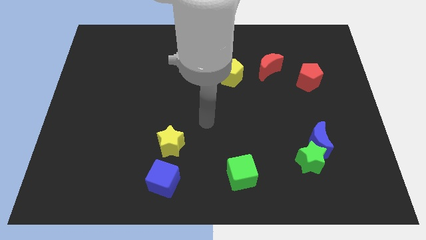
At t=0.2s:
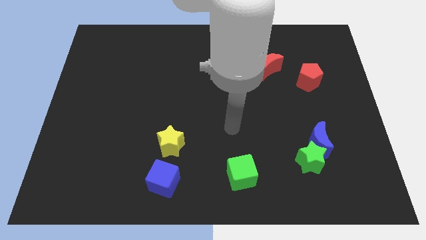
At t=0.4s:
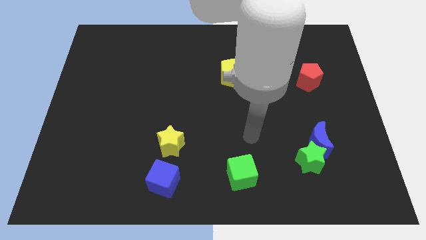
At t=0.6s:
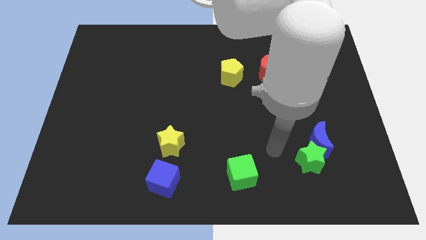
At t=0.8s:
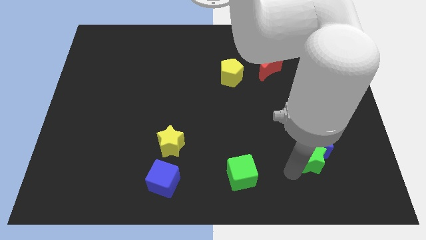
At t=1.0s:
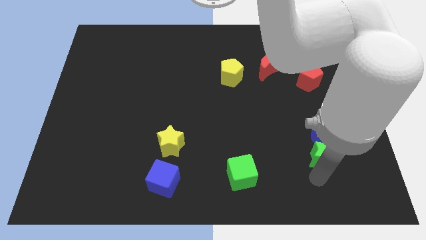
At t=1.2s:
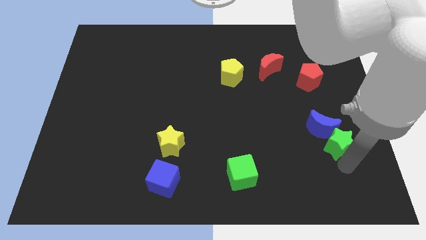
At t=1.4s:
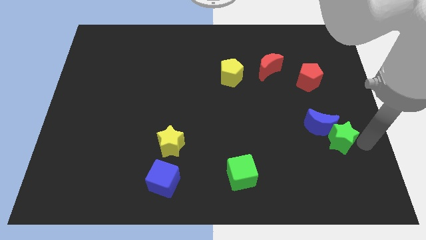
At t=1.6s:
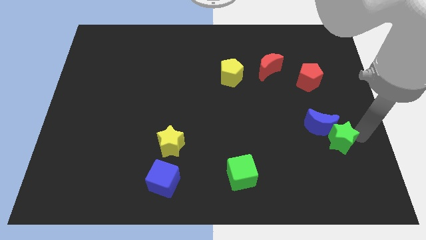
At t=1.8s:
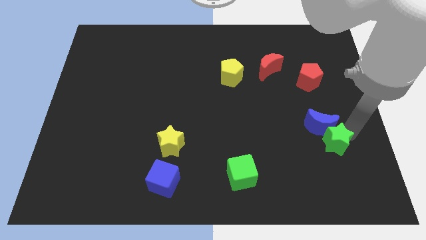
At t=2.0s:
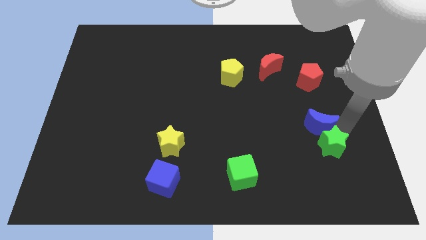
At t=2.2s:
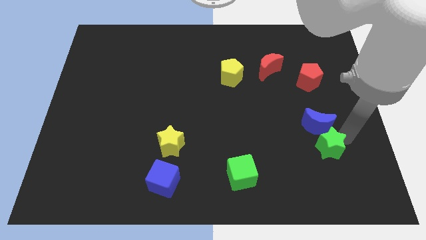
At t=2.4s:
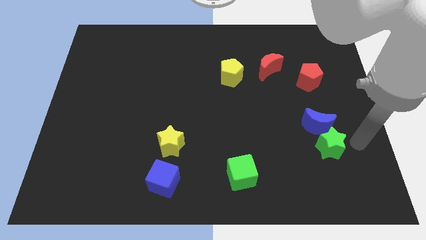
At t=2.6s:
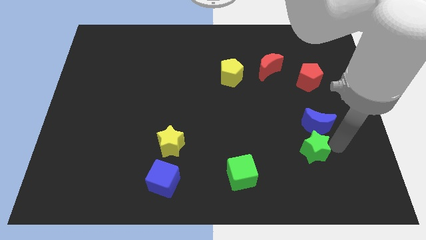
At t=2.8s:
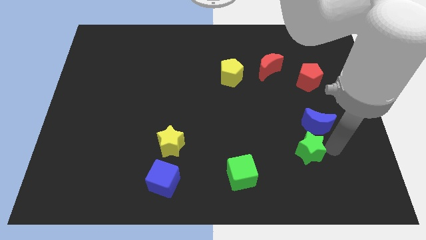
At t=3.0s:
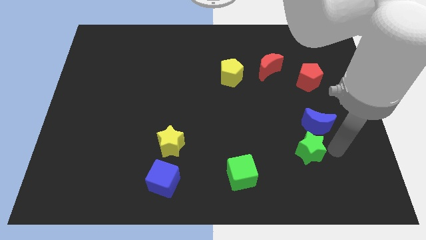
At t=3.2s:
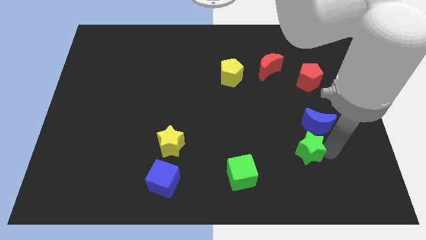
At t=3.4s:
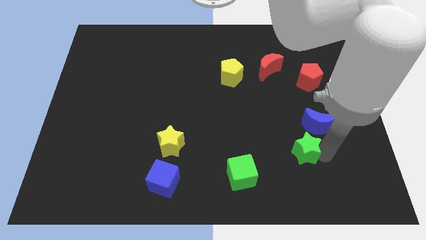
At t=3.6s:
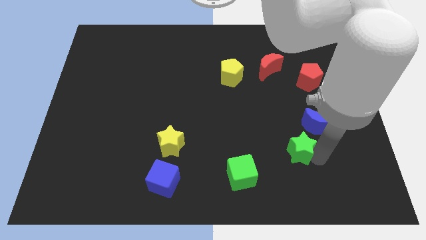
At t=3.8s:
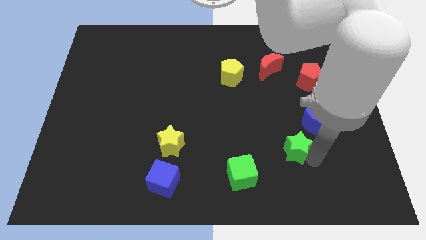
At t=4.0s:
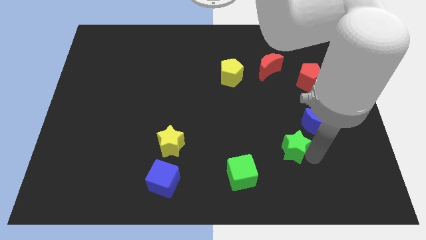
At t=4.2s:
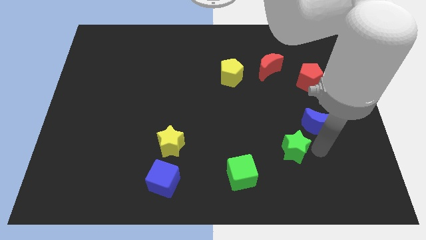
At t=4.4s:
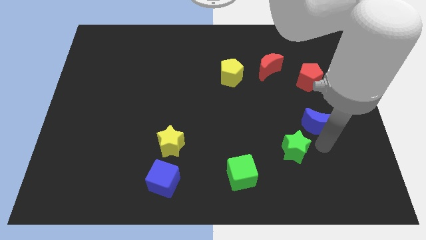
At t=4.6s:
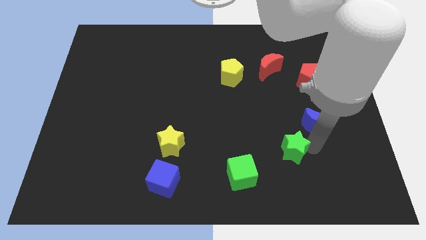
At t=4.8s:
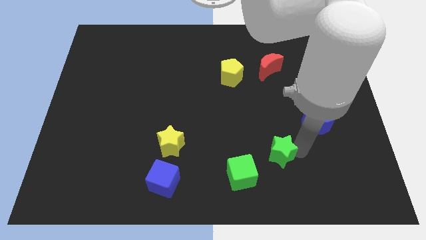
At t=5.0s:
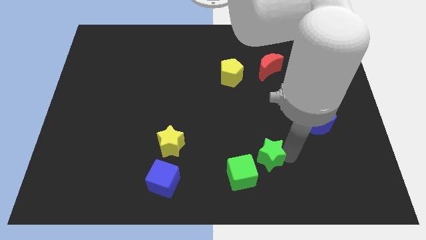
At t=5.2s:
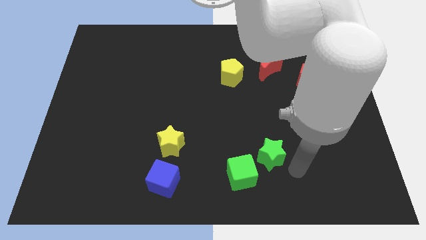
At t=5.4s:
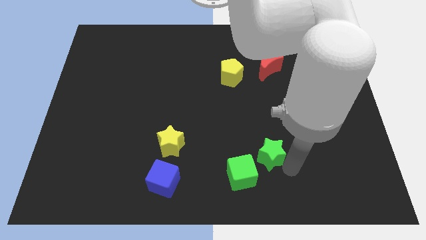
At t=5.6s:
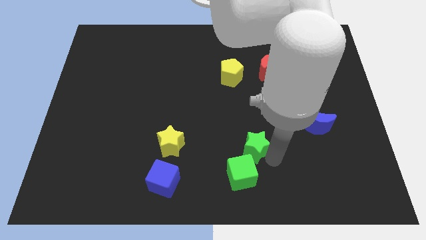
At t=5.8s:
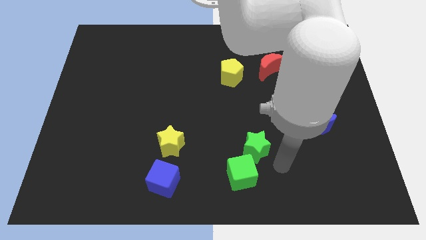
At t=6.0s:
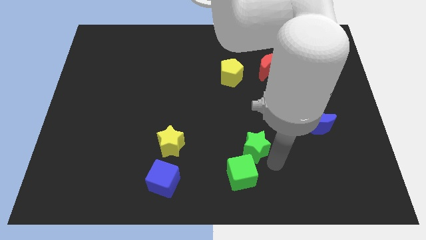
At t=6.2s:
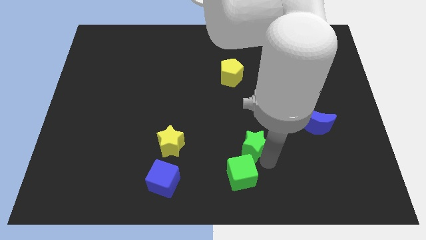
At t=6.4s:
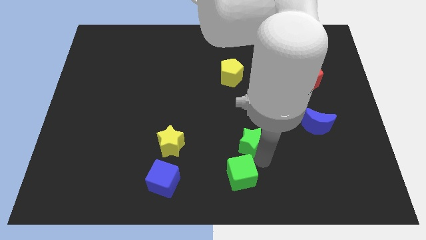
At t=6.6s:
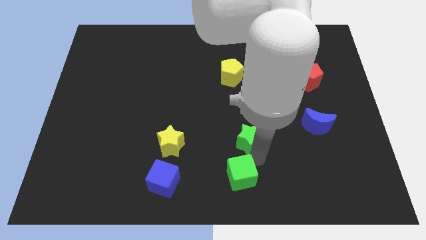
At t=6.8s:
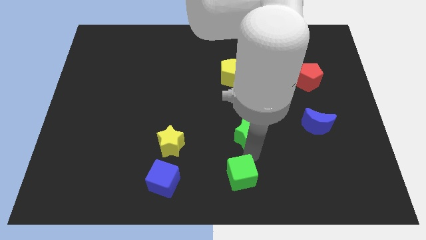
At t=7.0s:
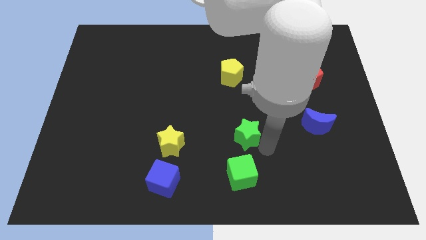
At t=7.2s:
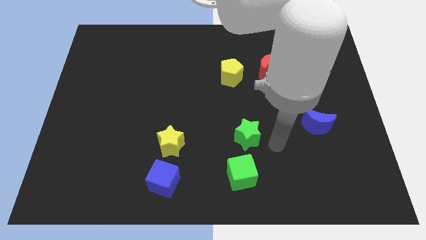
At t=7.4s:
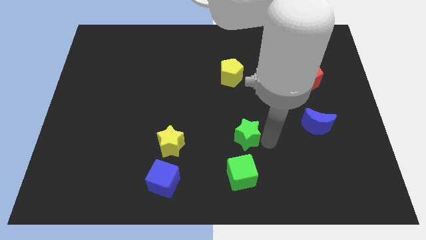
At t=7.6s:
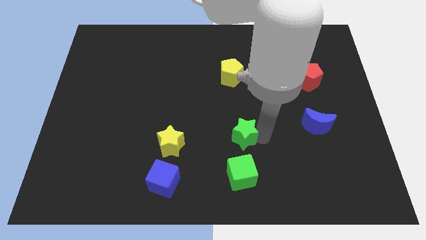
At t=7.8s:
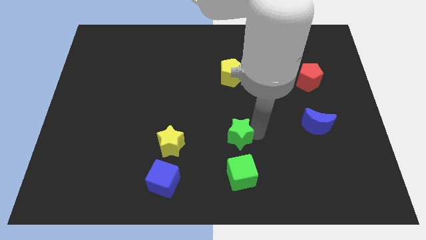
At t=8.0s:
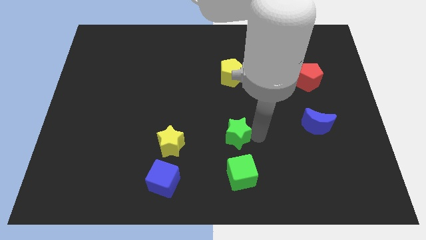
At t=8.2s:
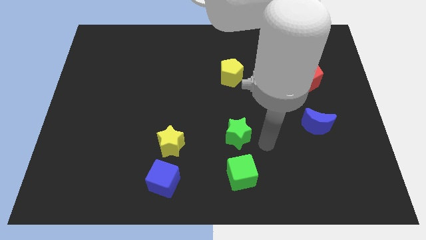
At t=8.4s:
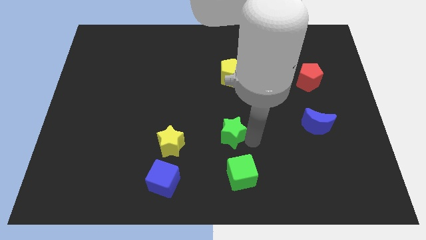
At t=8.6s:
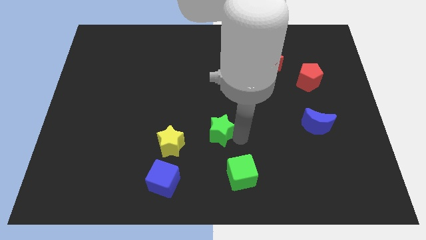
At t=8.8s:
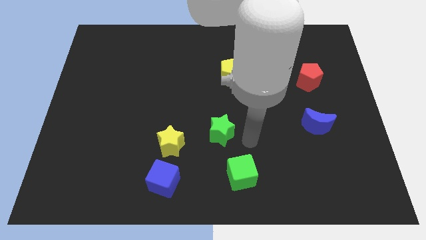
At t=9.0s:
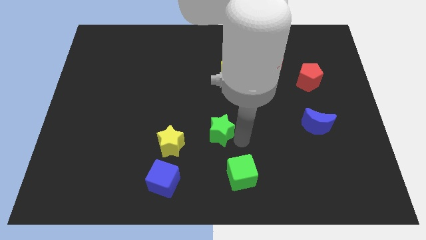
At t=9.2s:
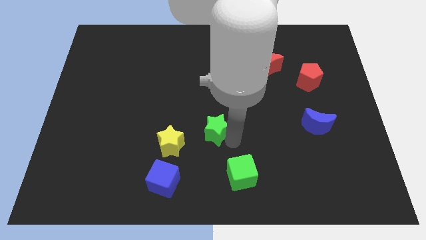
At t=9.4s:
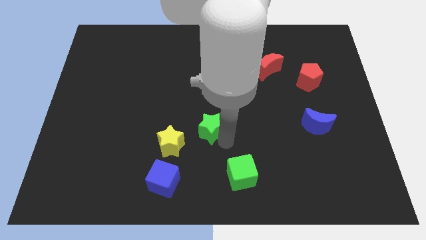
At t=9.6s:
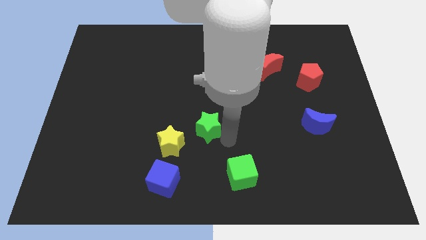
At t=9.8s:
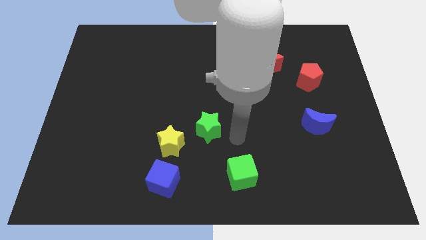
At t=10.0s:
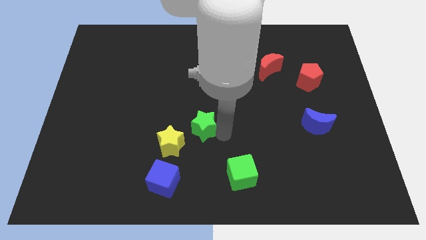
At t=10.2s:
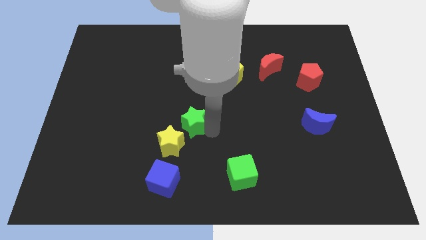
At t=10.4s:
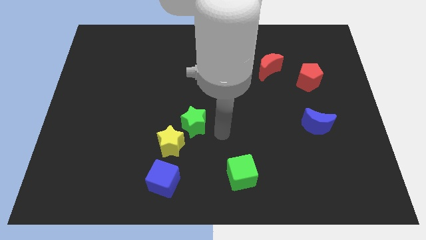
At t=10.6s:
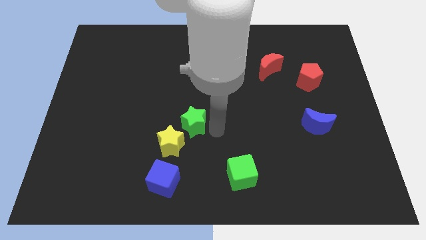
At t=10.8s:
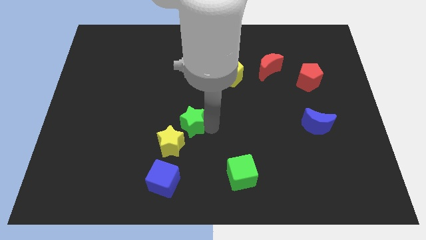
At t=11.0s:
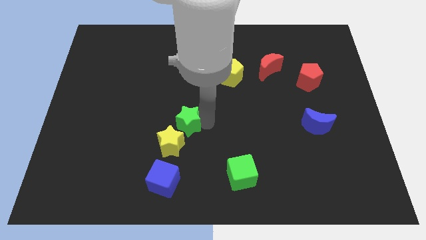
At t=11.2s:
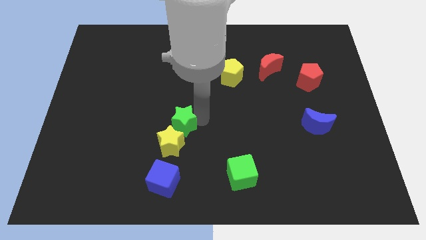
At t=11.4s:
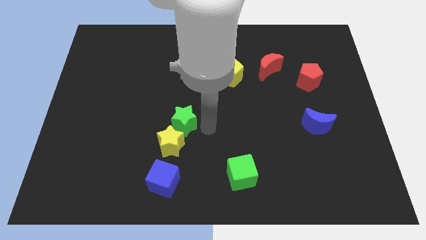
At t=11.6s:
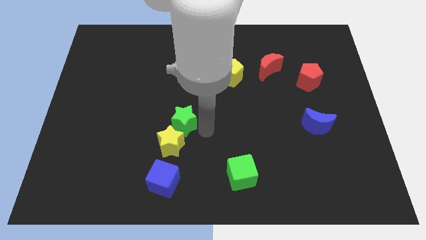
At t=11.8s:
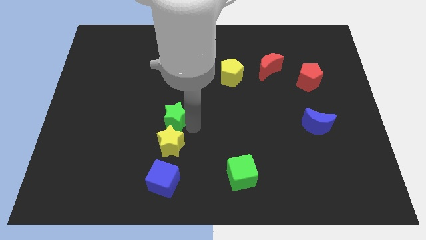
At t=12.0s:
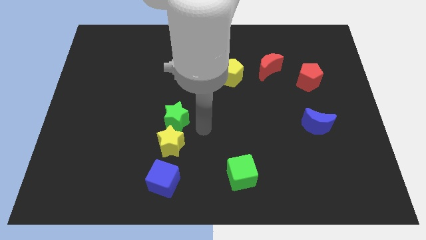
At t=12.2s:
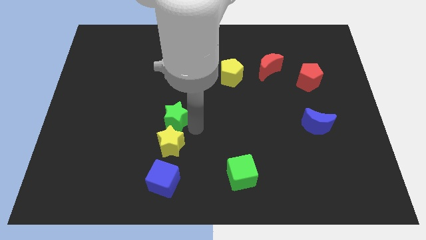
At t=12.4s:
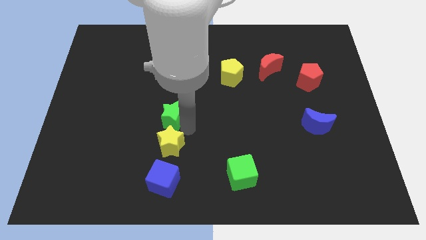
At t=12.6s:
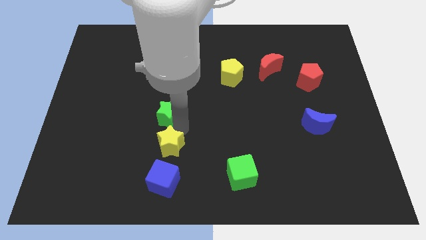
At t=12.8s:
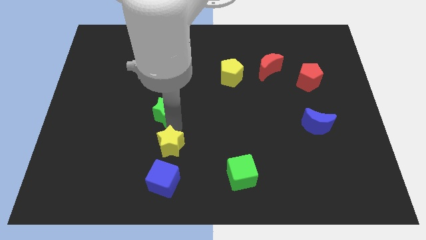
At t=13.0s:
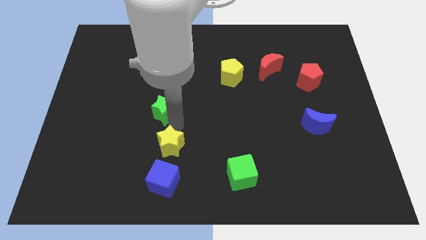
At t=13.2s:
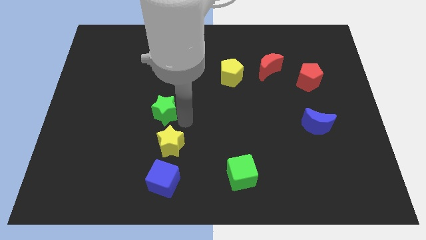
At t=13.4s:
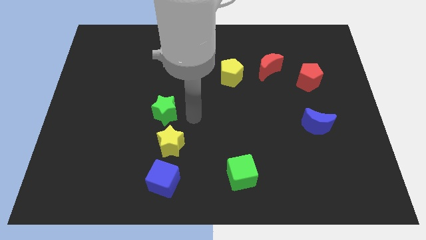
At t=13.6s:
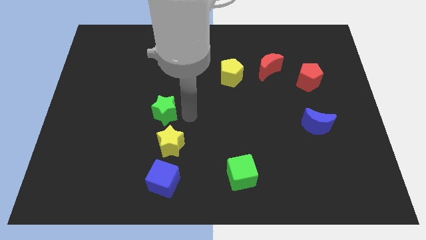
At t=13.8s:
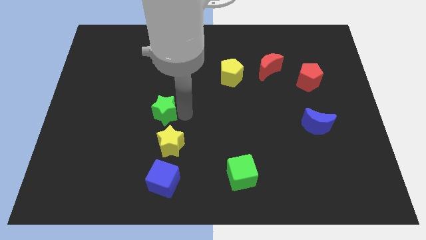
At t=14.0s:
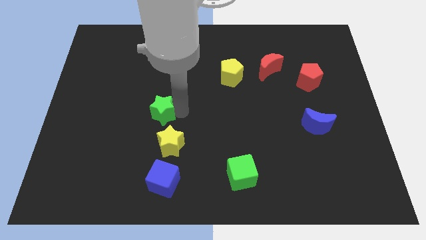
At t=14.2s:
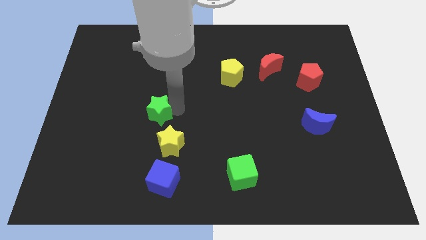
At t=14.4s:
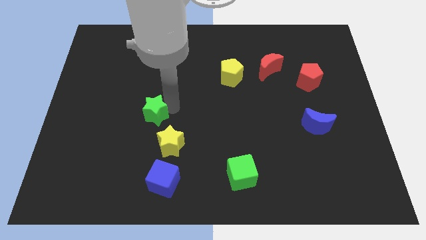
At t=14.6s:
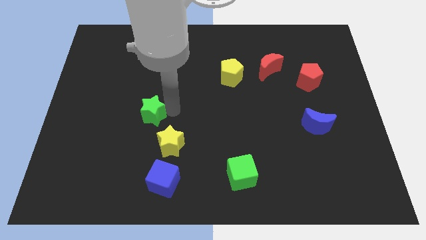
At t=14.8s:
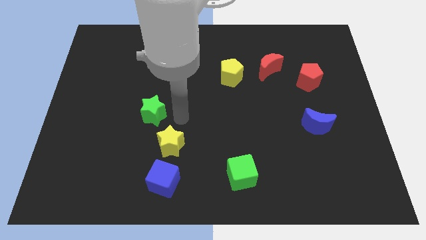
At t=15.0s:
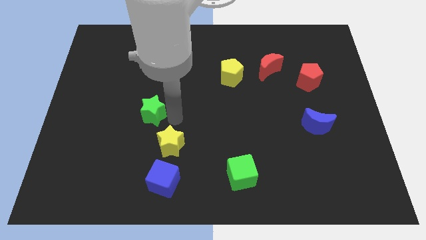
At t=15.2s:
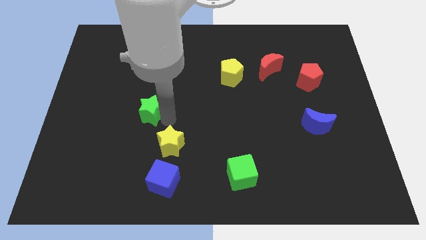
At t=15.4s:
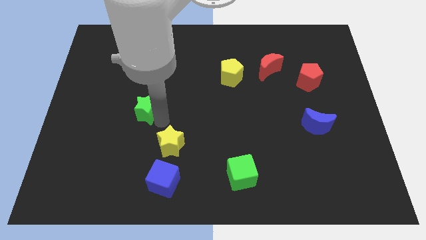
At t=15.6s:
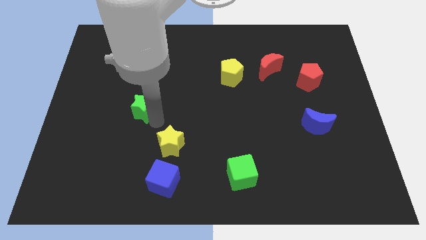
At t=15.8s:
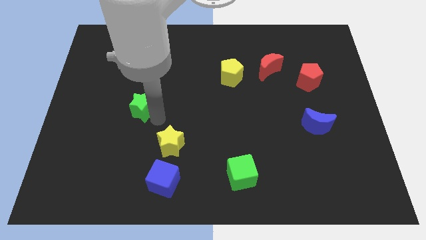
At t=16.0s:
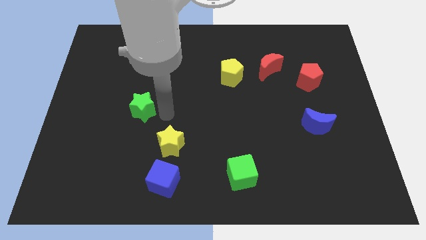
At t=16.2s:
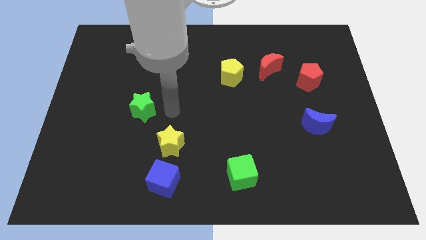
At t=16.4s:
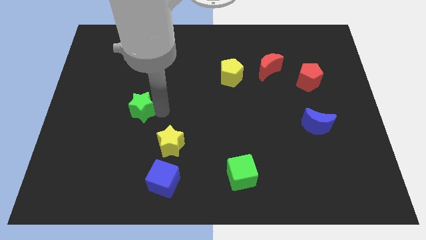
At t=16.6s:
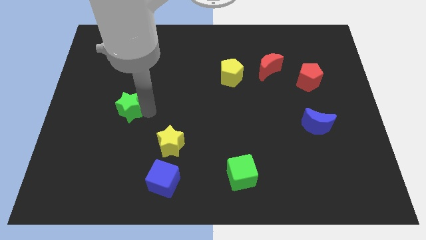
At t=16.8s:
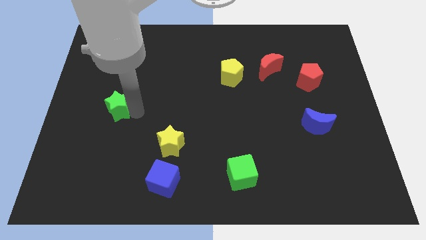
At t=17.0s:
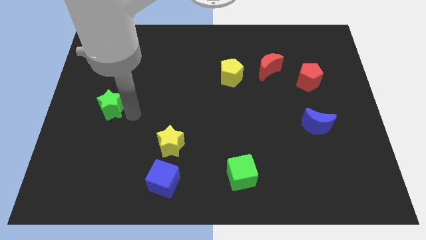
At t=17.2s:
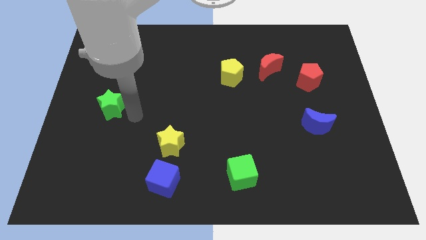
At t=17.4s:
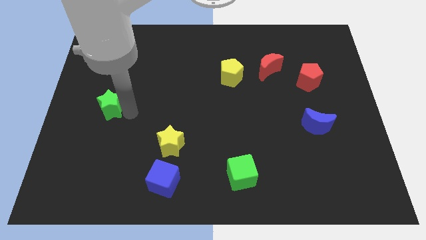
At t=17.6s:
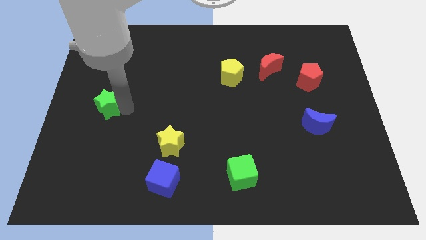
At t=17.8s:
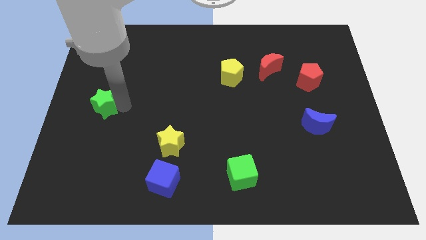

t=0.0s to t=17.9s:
move the green star to the left side
